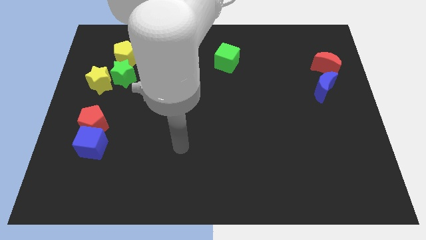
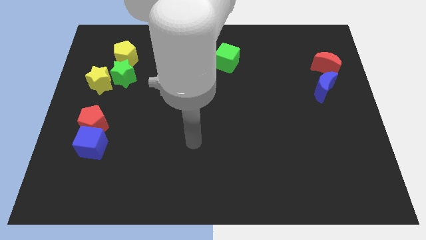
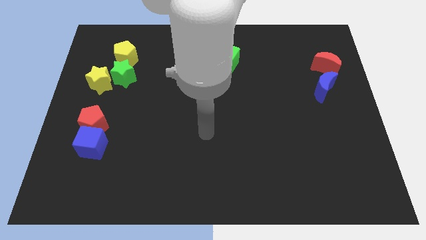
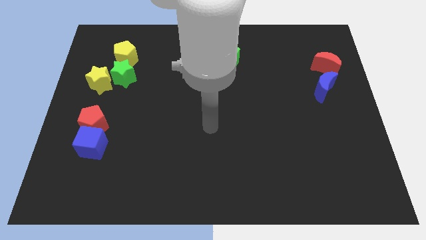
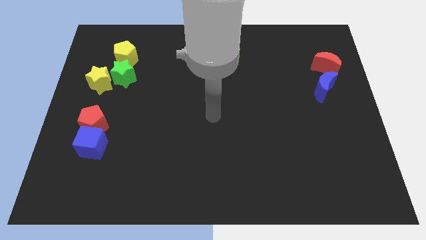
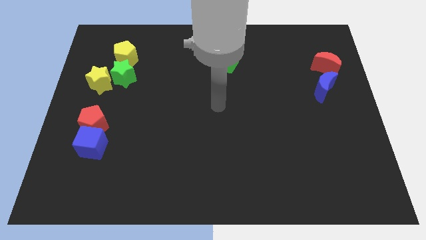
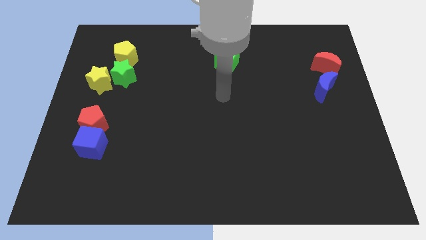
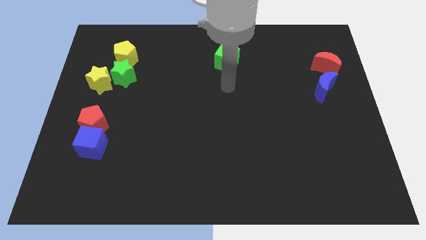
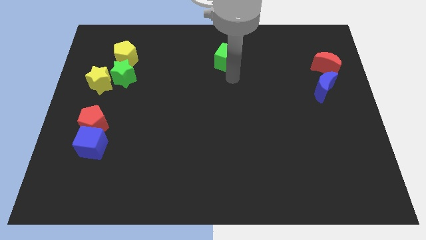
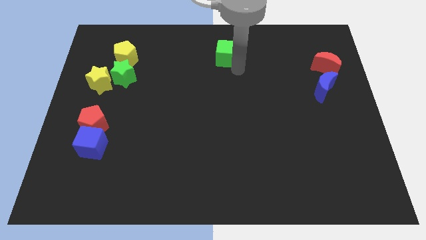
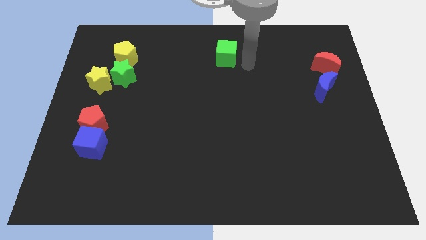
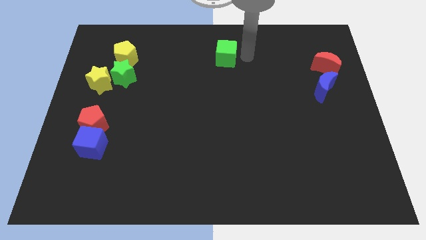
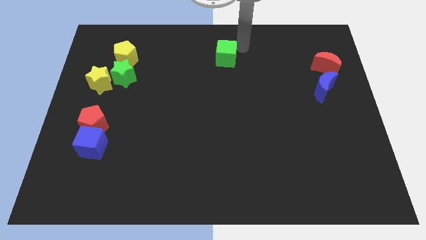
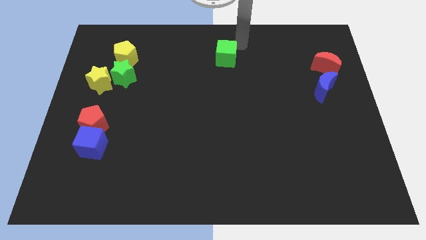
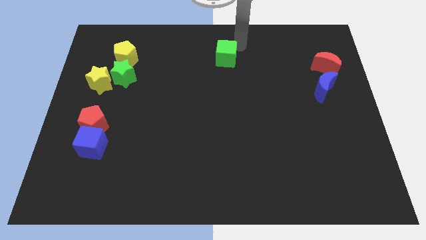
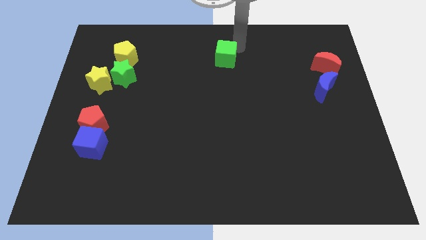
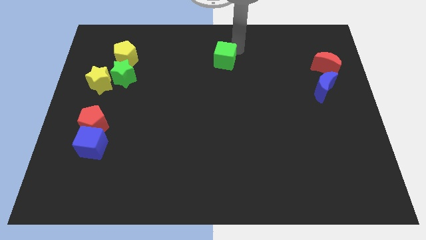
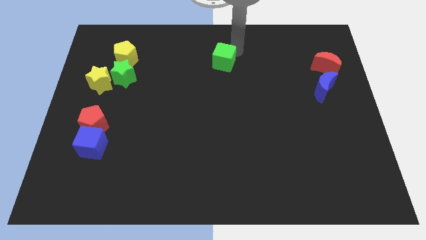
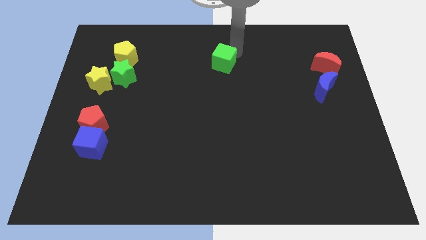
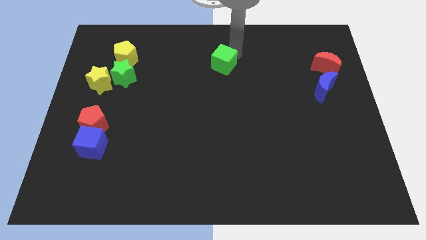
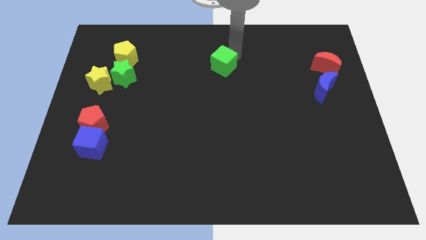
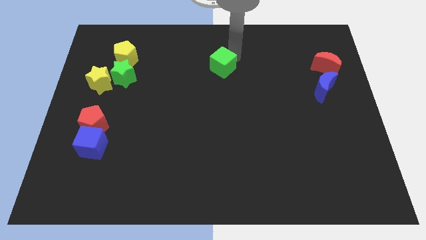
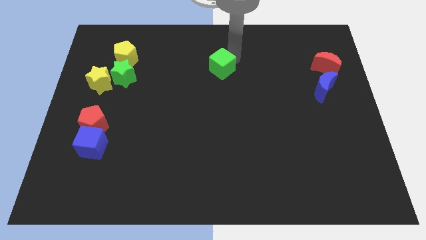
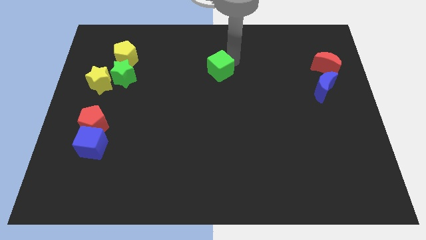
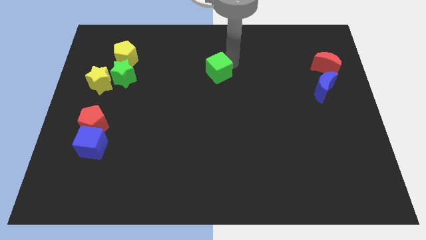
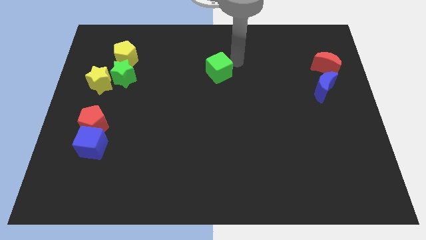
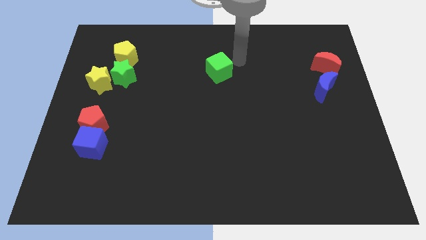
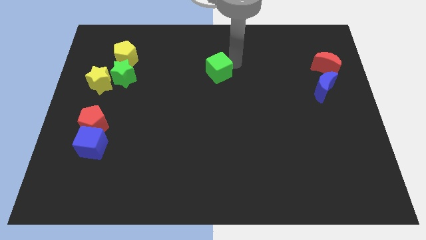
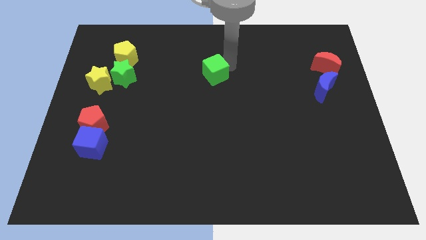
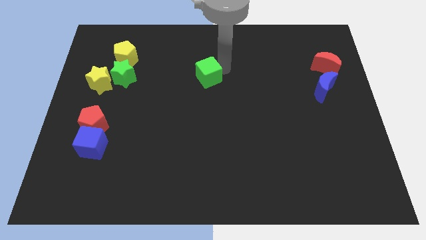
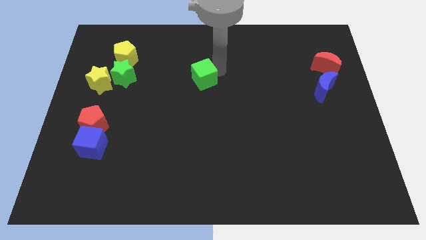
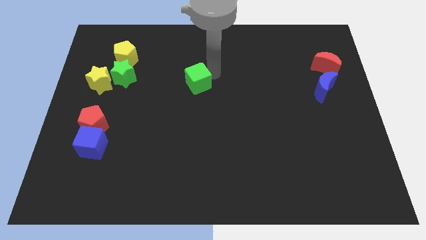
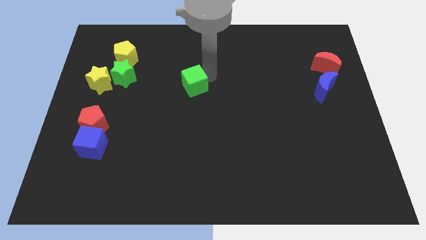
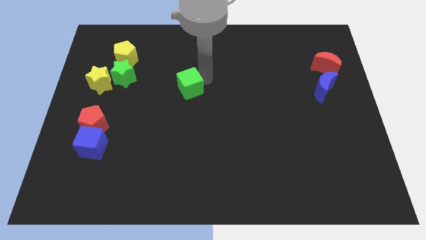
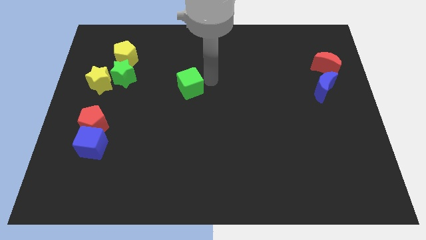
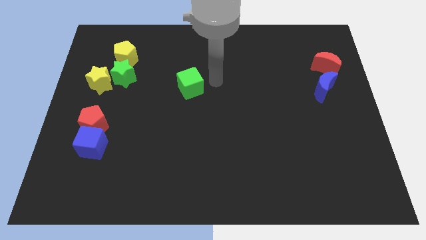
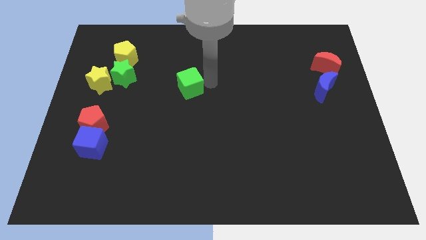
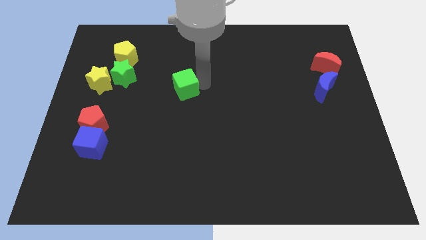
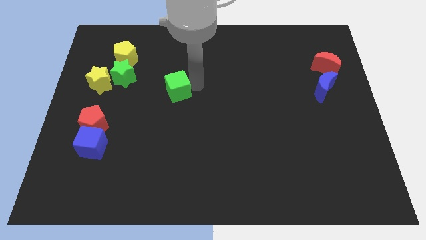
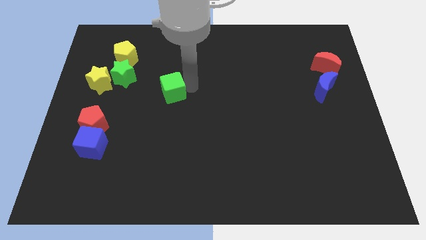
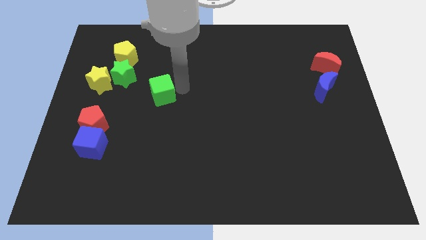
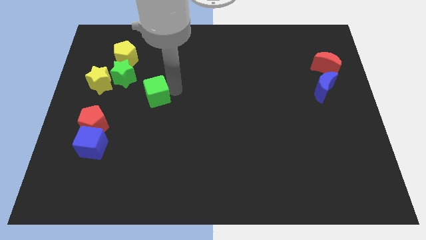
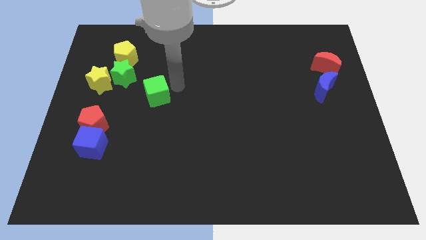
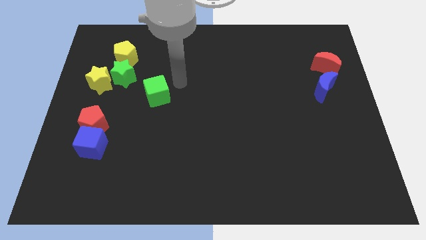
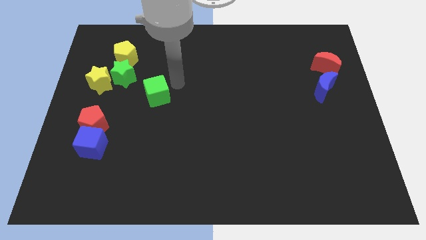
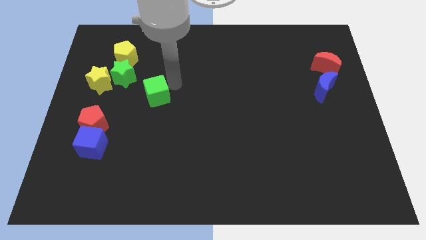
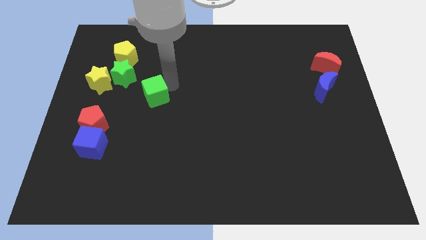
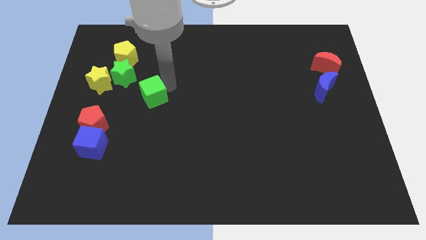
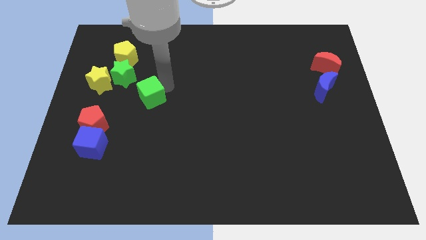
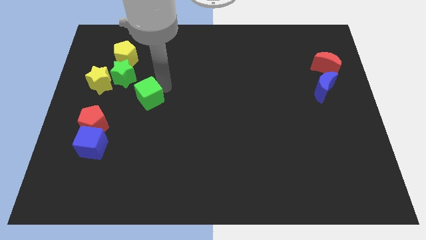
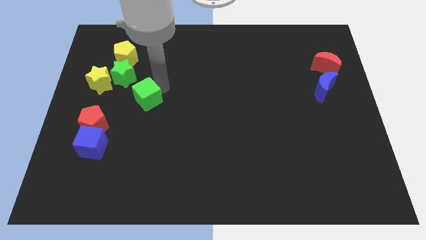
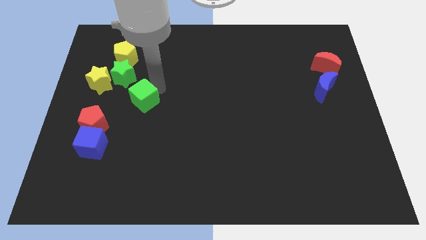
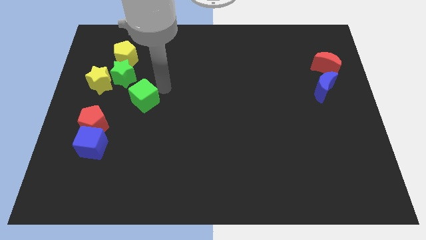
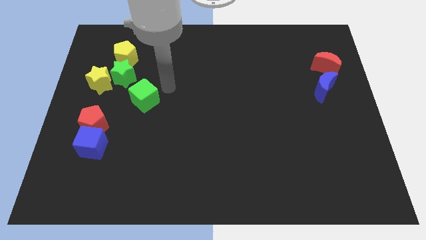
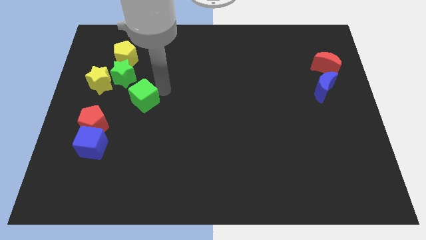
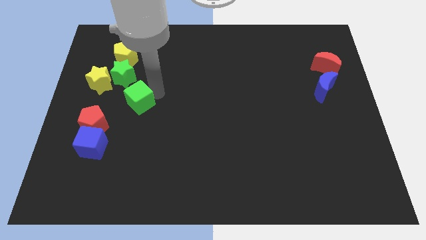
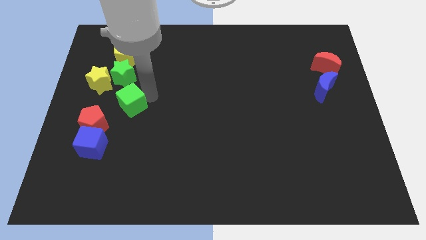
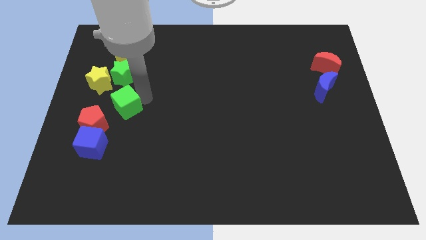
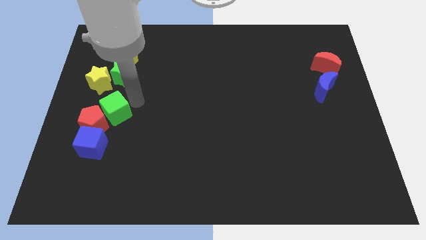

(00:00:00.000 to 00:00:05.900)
push the green cube to the red pentagon
